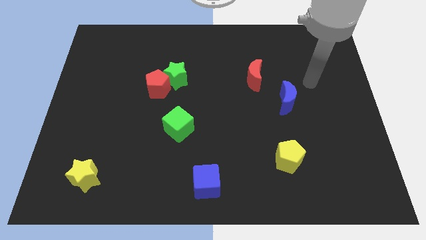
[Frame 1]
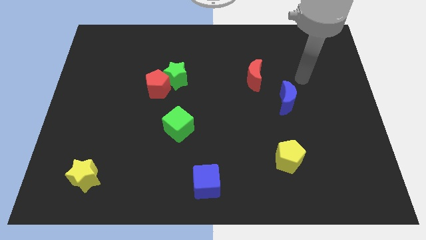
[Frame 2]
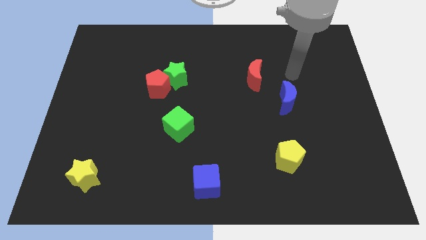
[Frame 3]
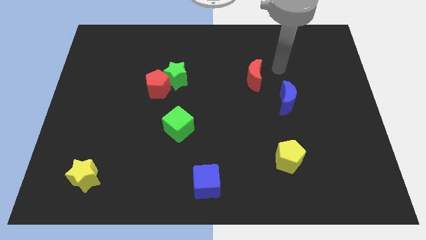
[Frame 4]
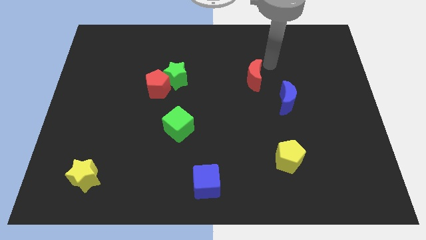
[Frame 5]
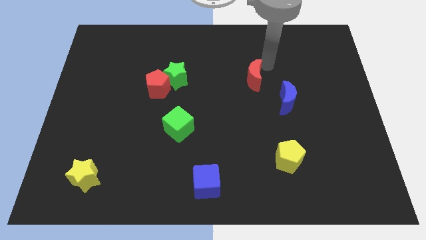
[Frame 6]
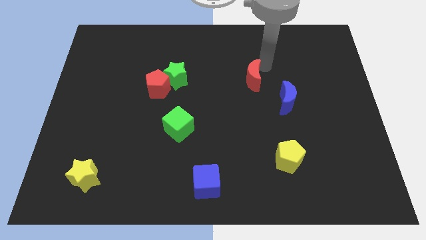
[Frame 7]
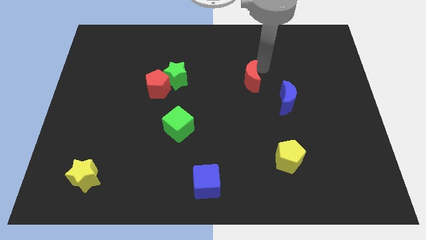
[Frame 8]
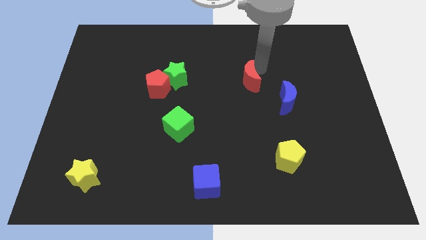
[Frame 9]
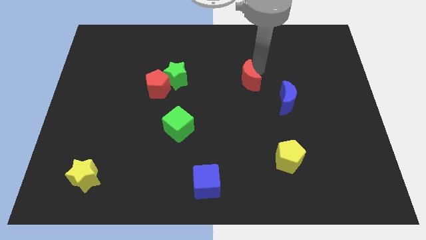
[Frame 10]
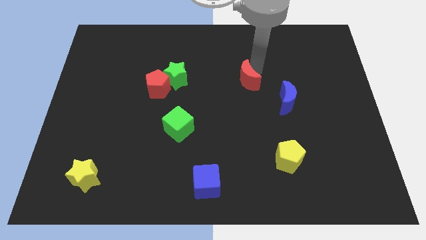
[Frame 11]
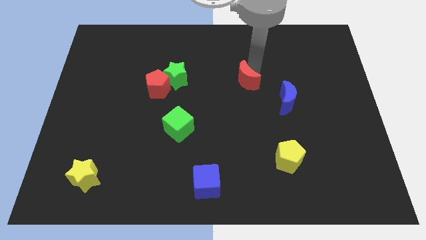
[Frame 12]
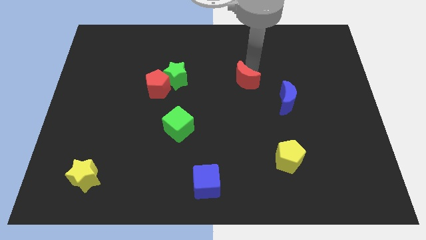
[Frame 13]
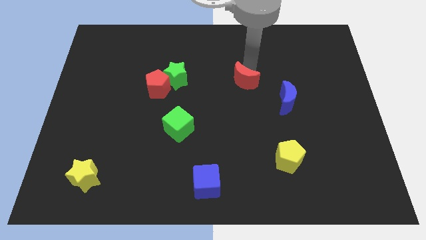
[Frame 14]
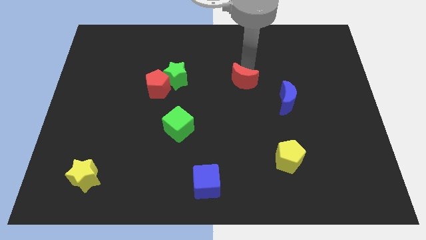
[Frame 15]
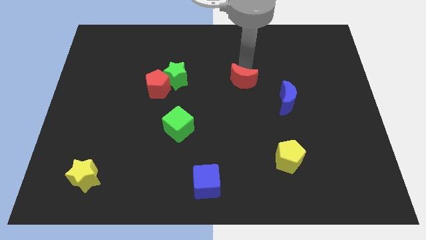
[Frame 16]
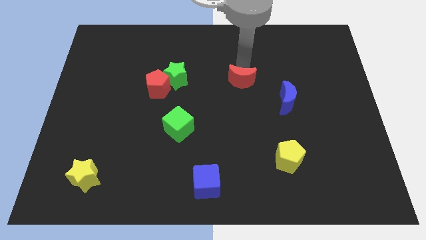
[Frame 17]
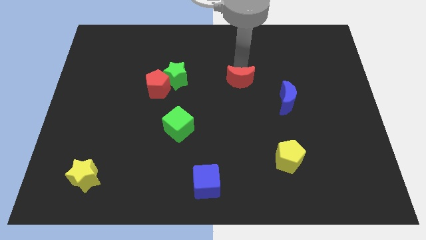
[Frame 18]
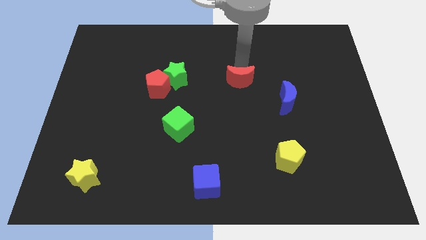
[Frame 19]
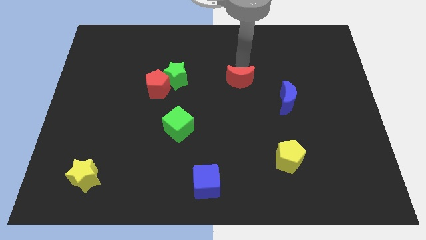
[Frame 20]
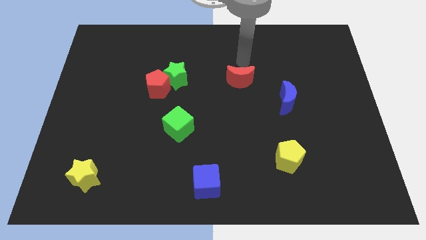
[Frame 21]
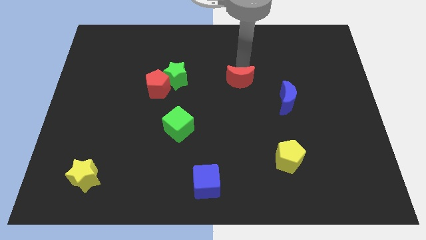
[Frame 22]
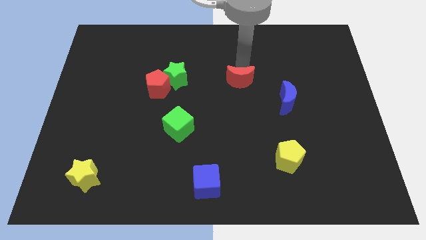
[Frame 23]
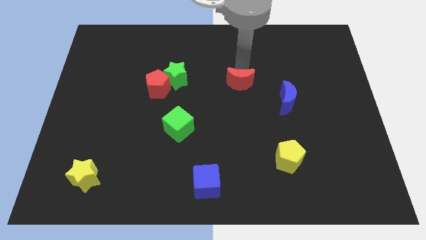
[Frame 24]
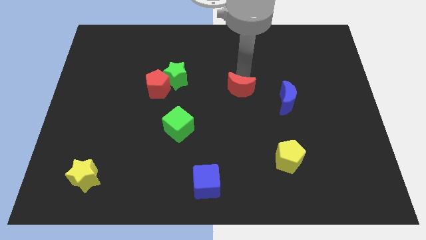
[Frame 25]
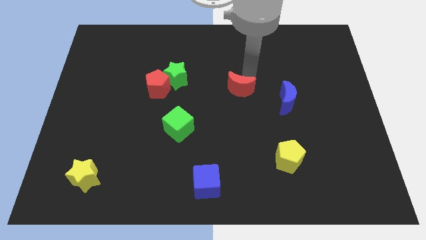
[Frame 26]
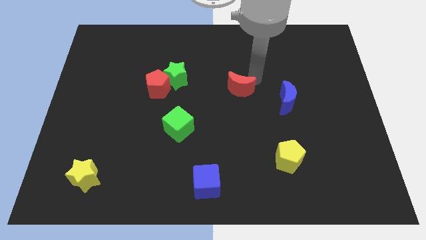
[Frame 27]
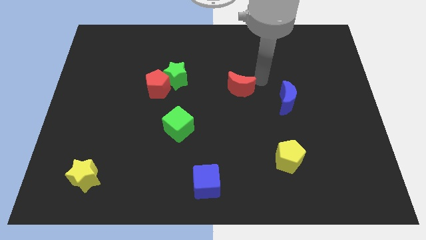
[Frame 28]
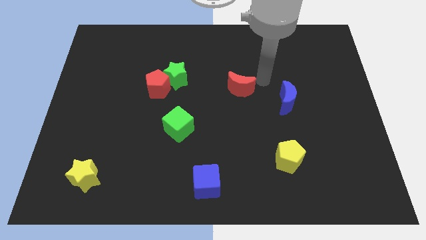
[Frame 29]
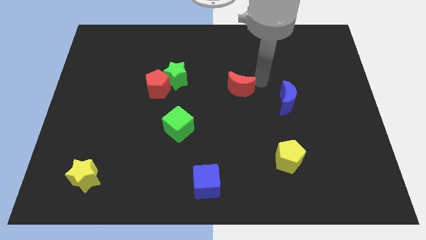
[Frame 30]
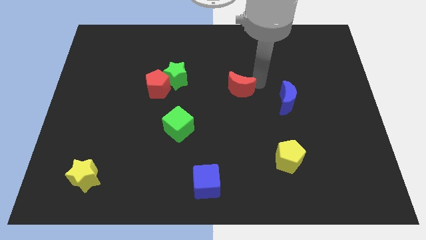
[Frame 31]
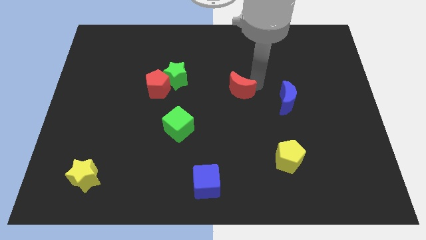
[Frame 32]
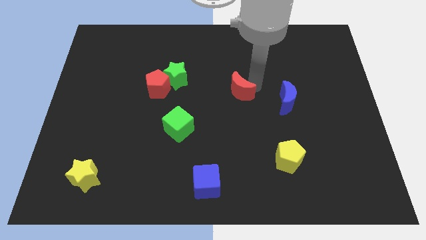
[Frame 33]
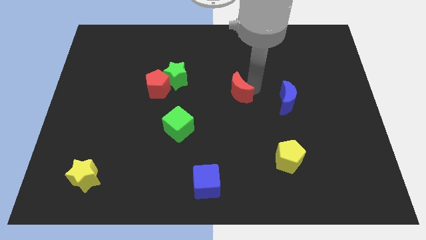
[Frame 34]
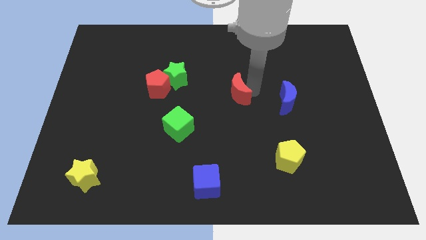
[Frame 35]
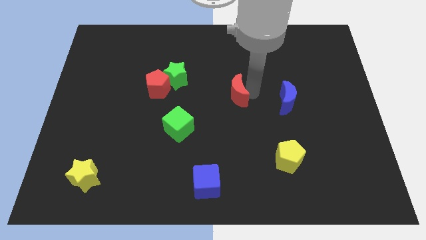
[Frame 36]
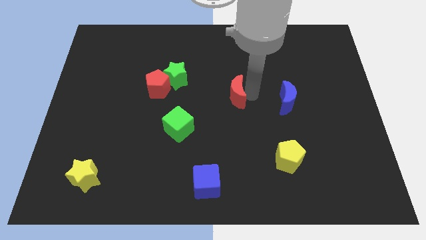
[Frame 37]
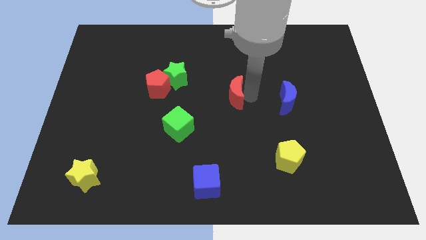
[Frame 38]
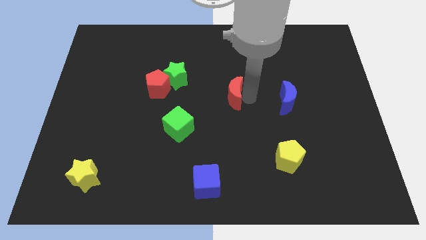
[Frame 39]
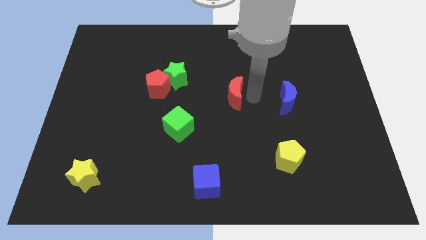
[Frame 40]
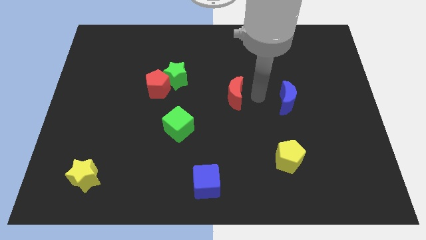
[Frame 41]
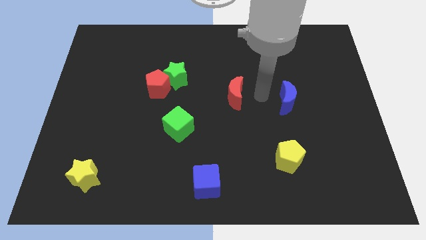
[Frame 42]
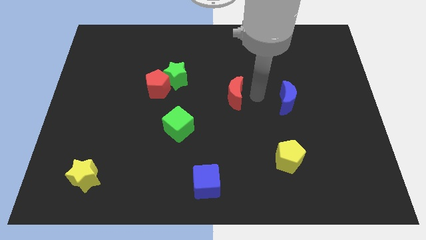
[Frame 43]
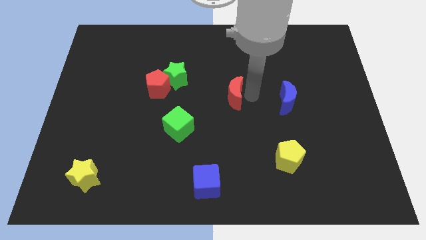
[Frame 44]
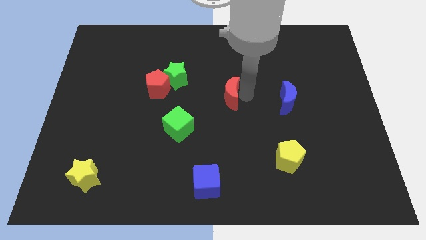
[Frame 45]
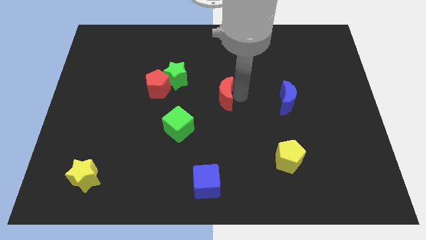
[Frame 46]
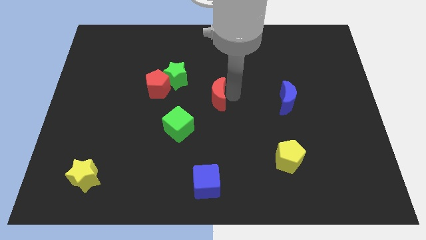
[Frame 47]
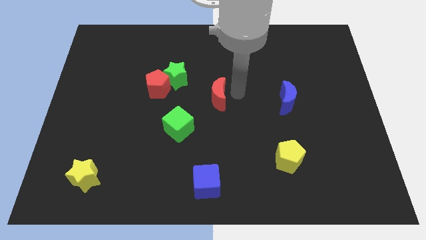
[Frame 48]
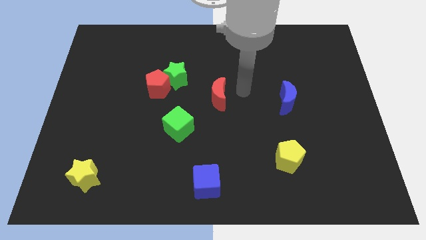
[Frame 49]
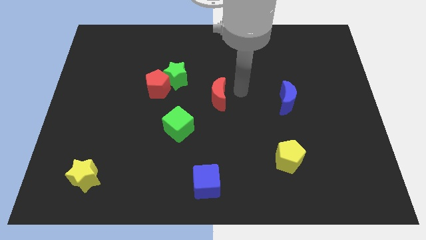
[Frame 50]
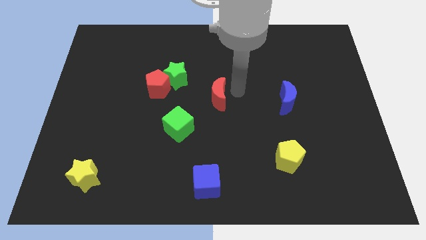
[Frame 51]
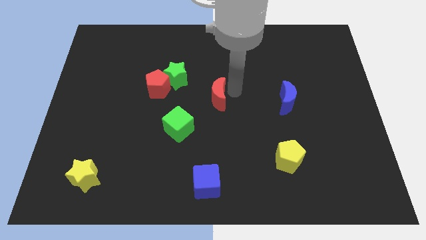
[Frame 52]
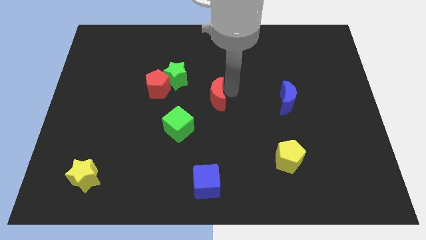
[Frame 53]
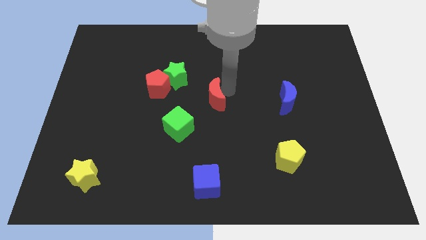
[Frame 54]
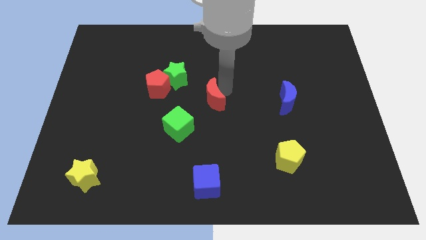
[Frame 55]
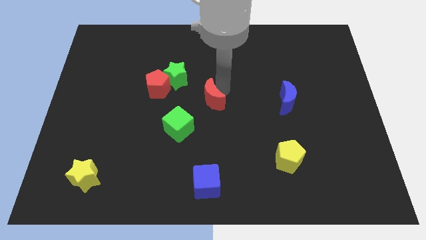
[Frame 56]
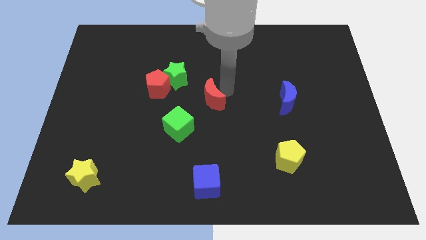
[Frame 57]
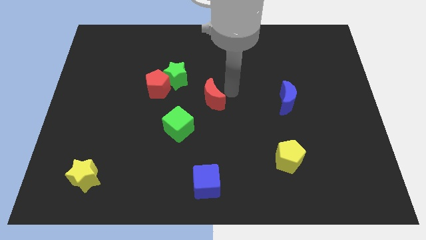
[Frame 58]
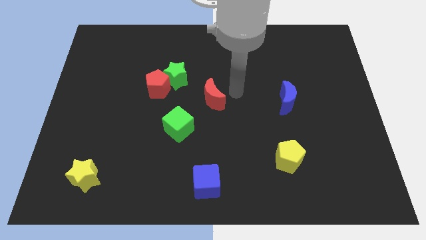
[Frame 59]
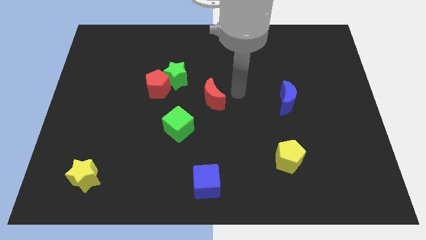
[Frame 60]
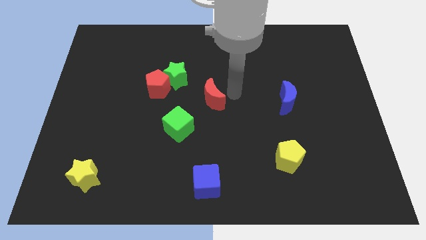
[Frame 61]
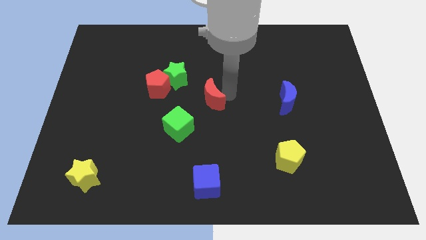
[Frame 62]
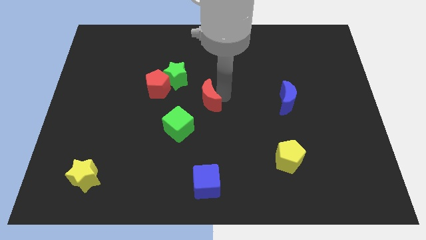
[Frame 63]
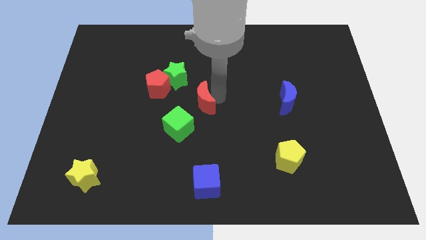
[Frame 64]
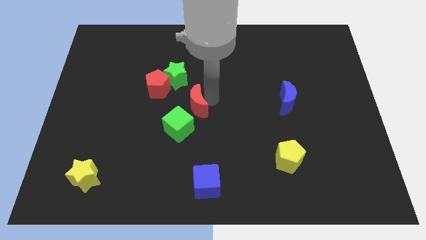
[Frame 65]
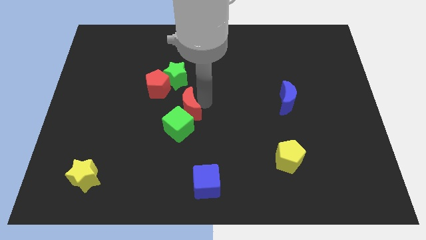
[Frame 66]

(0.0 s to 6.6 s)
put the red moon to the bottom of the green star

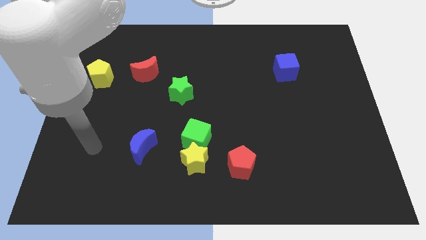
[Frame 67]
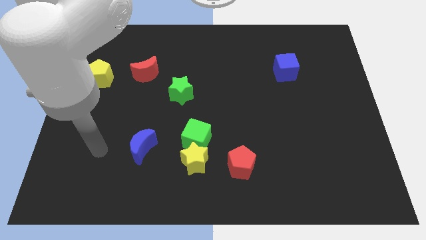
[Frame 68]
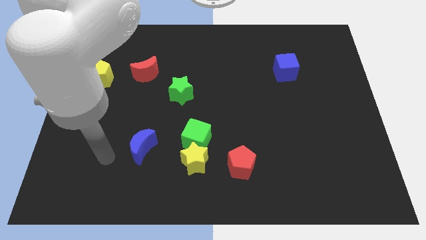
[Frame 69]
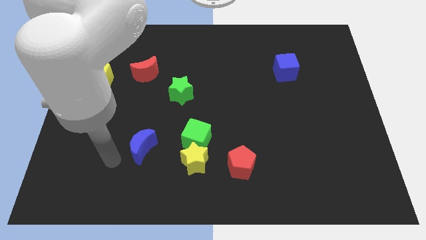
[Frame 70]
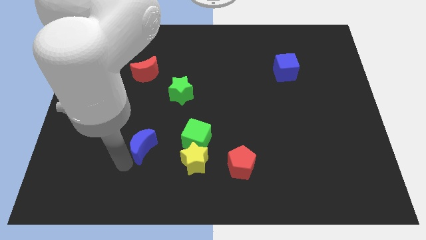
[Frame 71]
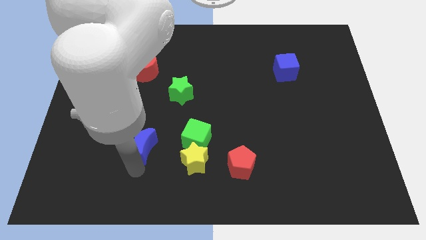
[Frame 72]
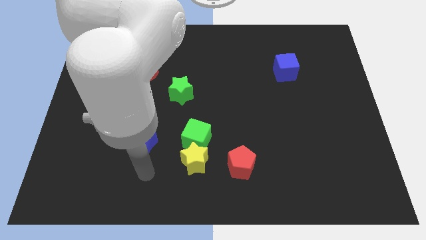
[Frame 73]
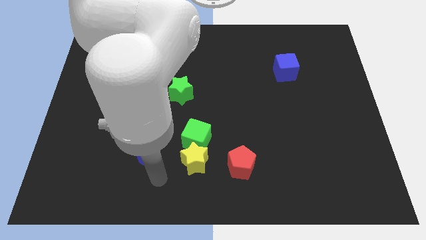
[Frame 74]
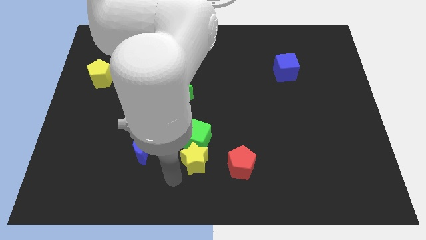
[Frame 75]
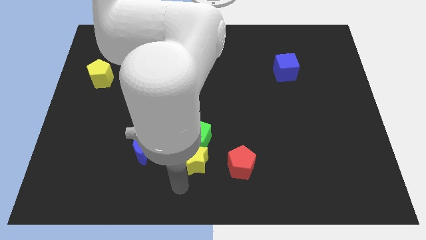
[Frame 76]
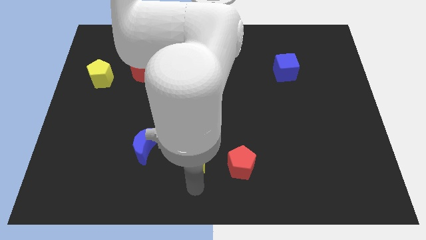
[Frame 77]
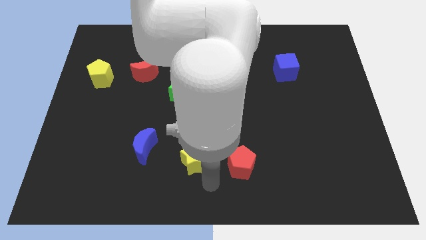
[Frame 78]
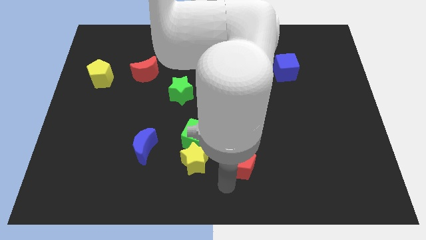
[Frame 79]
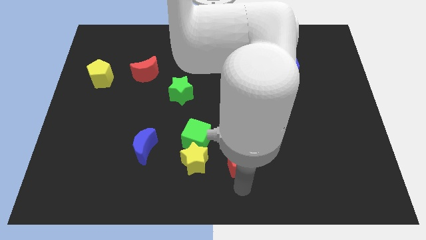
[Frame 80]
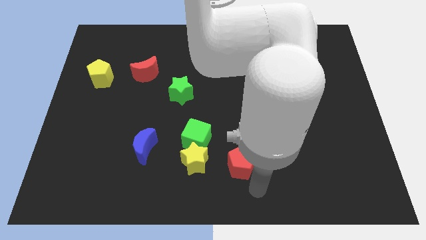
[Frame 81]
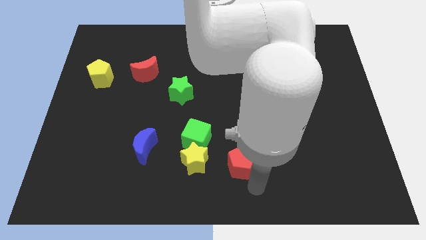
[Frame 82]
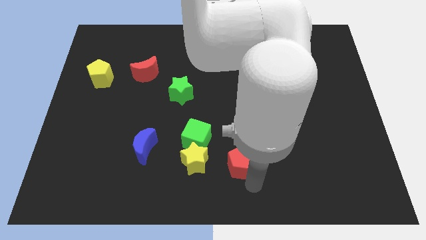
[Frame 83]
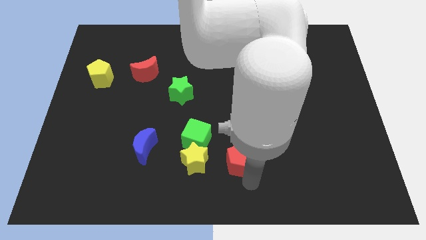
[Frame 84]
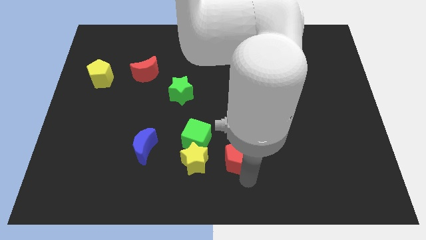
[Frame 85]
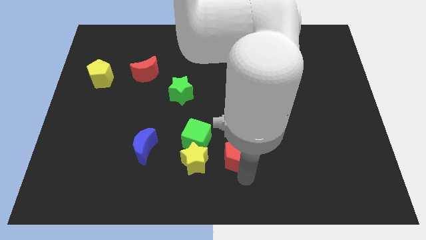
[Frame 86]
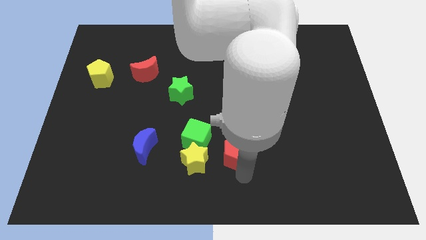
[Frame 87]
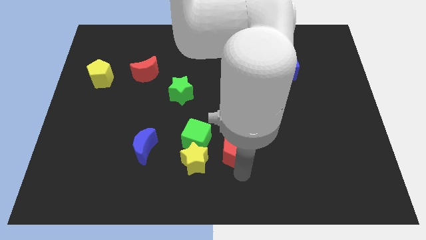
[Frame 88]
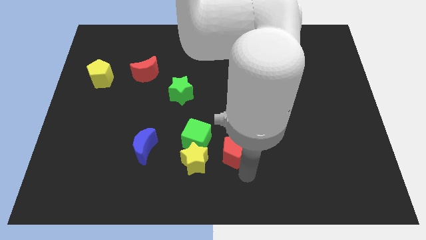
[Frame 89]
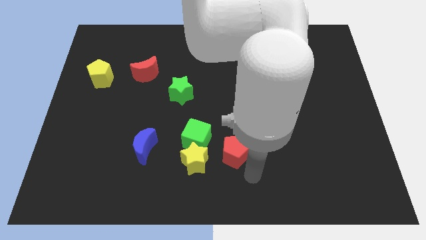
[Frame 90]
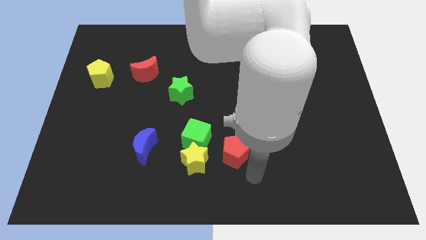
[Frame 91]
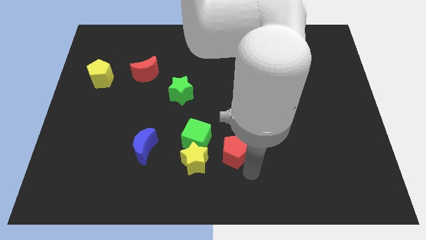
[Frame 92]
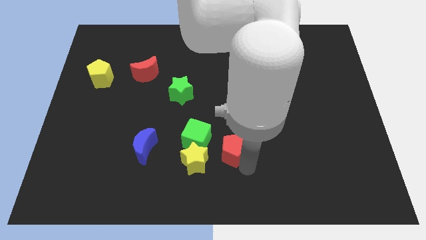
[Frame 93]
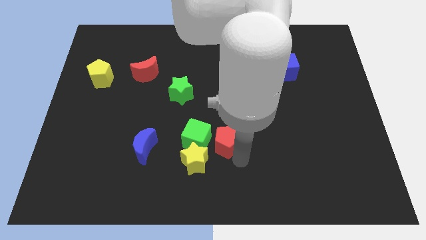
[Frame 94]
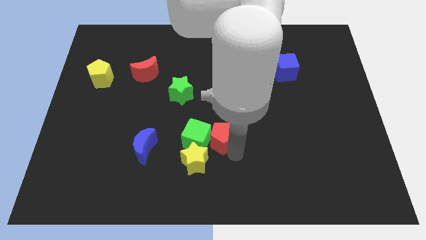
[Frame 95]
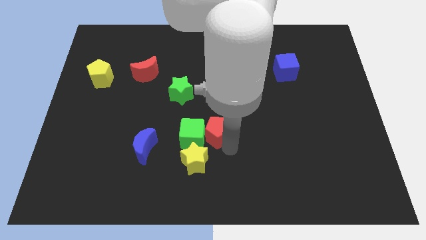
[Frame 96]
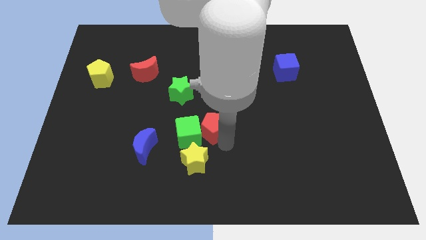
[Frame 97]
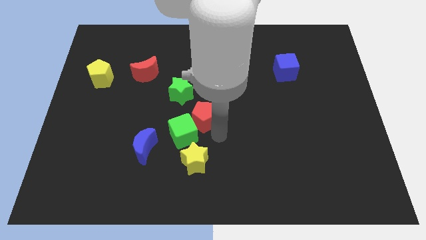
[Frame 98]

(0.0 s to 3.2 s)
put the red pentagon to the top side of the green cube
